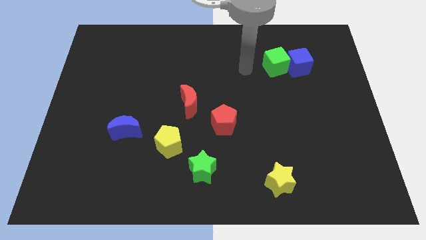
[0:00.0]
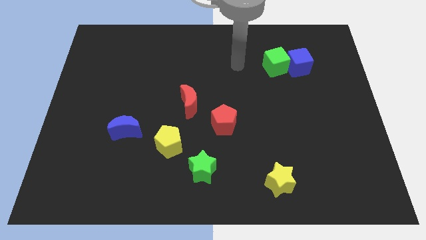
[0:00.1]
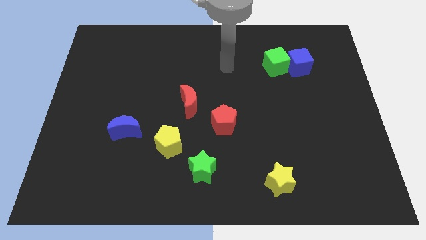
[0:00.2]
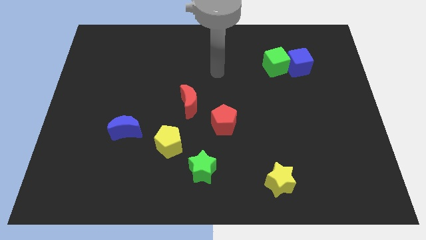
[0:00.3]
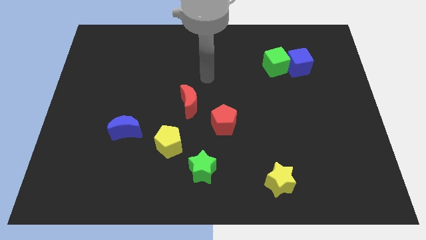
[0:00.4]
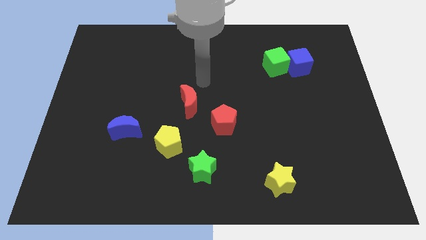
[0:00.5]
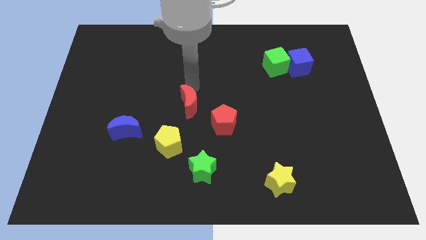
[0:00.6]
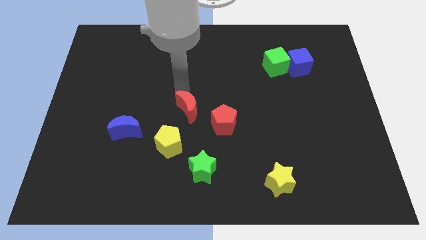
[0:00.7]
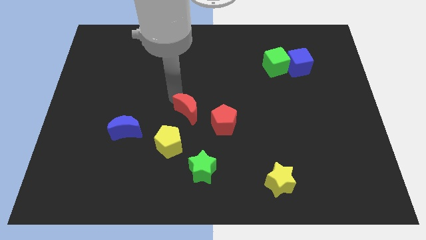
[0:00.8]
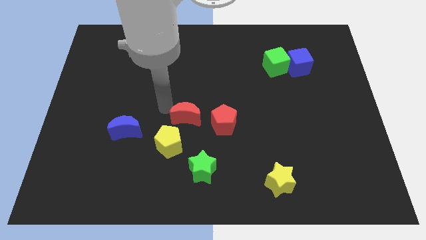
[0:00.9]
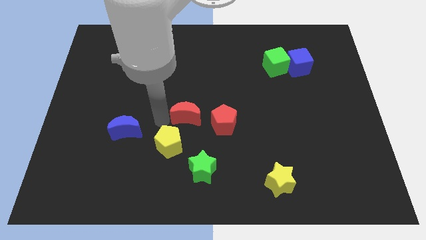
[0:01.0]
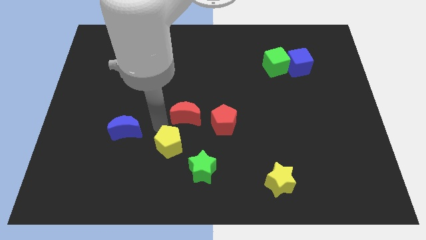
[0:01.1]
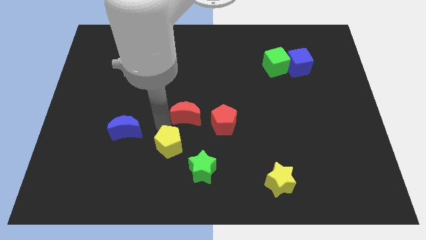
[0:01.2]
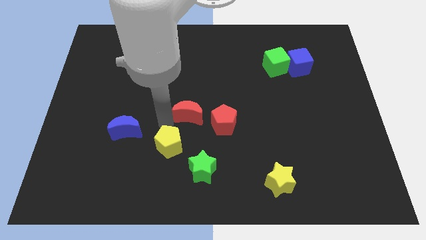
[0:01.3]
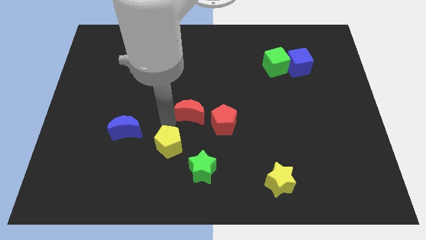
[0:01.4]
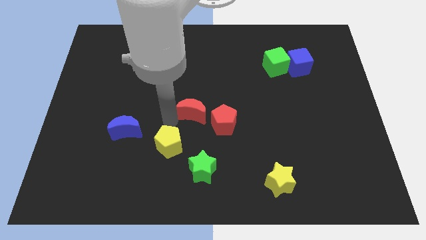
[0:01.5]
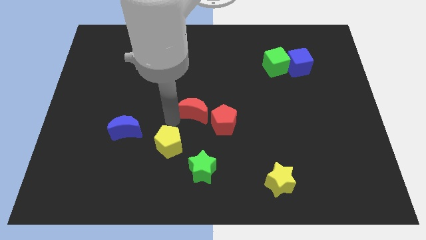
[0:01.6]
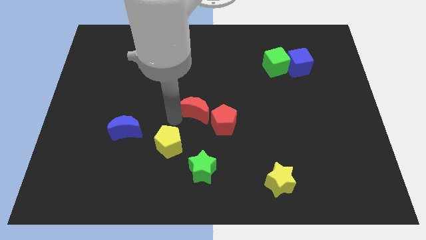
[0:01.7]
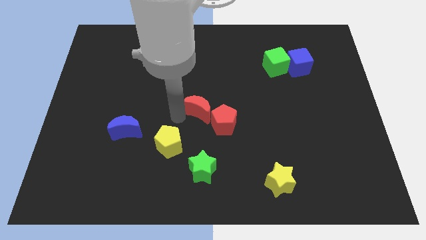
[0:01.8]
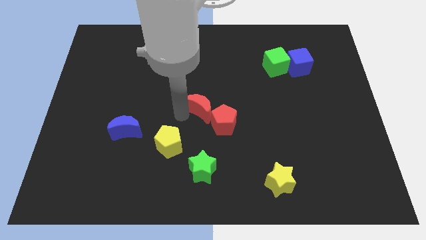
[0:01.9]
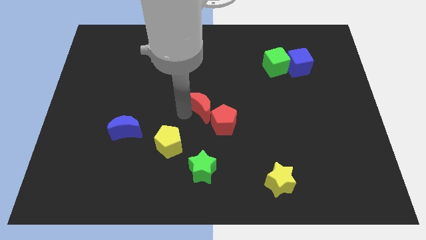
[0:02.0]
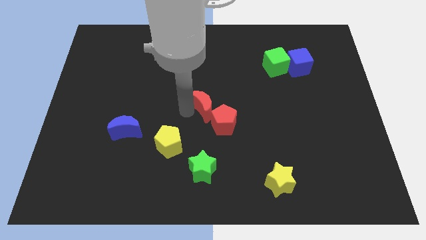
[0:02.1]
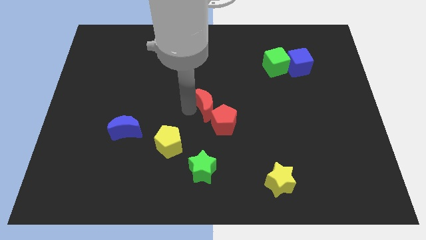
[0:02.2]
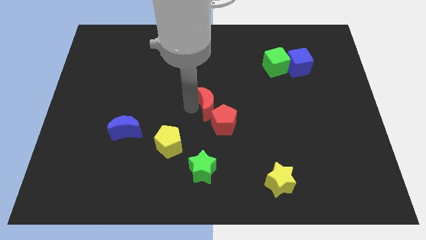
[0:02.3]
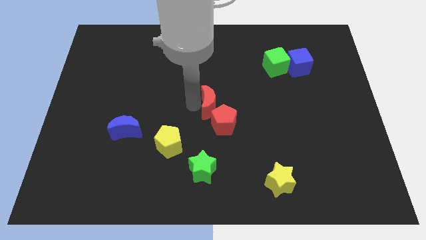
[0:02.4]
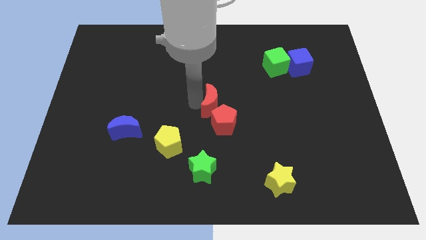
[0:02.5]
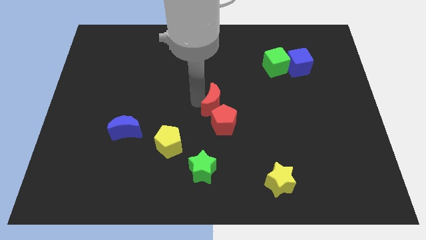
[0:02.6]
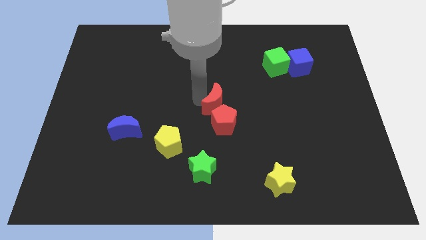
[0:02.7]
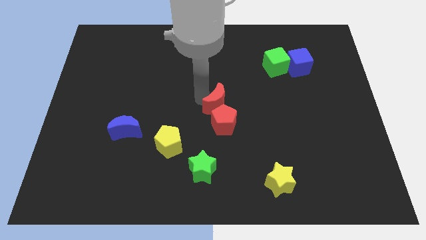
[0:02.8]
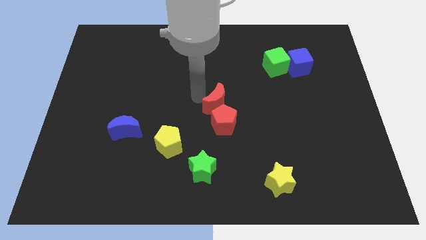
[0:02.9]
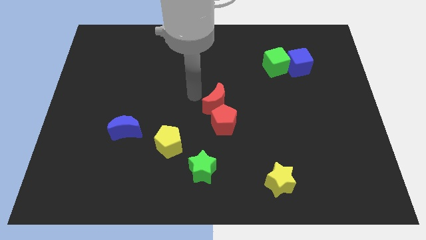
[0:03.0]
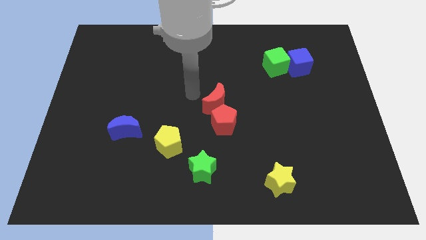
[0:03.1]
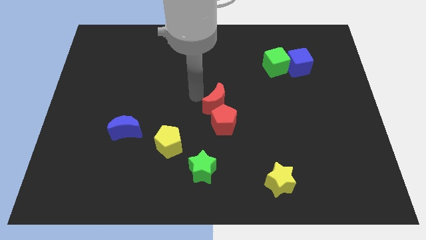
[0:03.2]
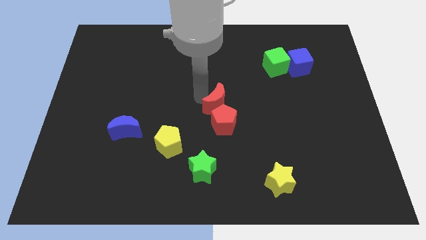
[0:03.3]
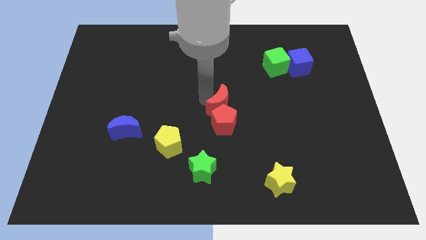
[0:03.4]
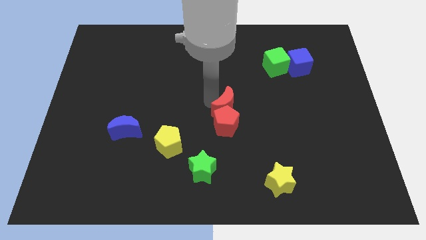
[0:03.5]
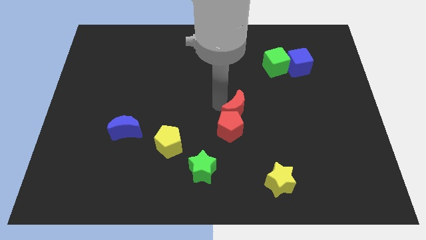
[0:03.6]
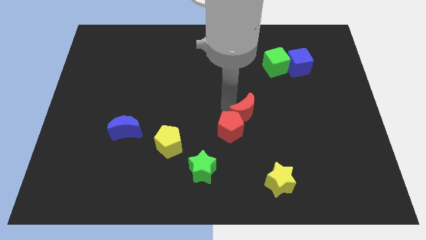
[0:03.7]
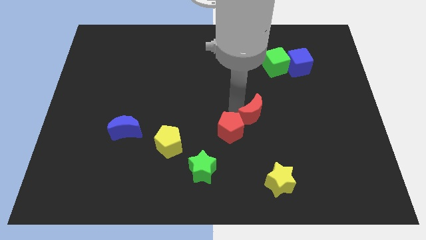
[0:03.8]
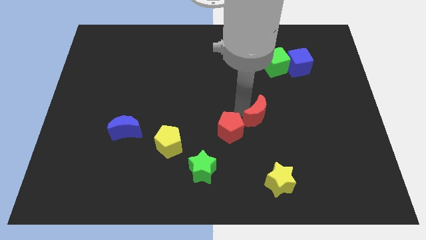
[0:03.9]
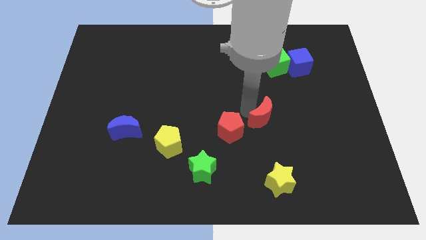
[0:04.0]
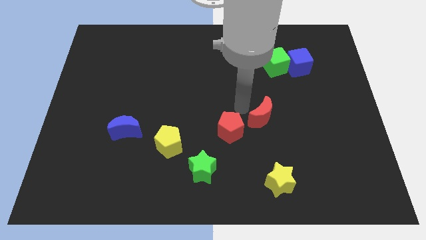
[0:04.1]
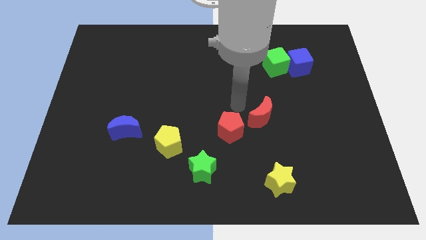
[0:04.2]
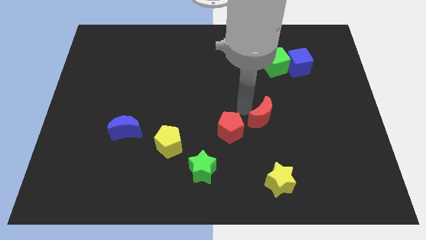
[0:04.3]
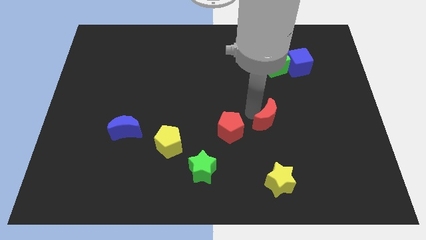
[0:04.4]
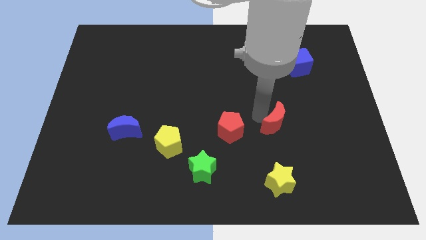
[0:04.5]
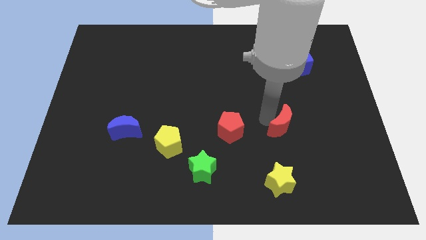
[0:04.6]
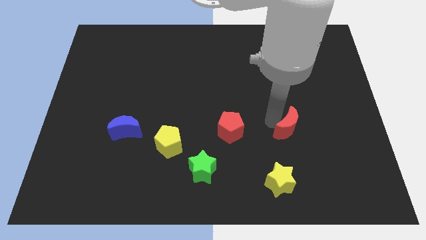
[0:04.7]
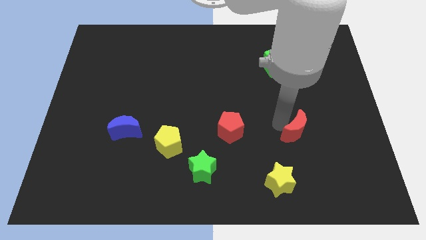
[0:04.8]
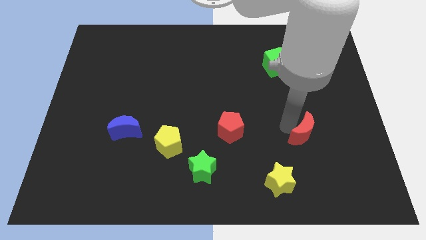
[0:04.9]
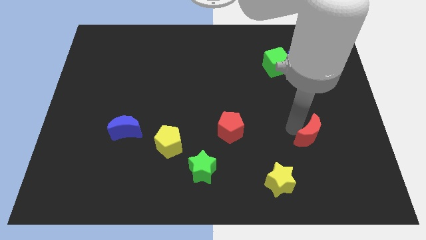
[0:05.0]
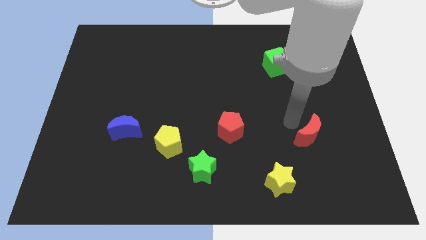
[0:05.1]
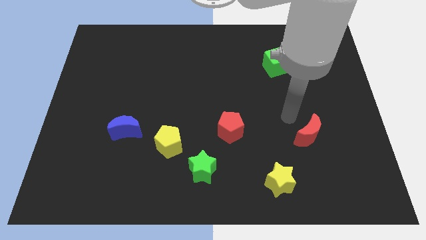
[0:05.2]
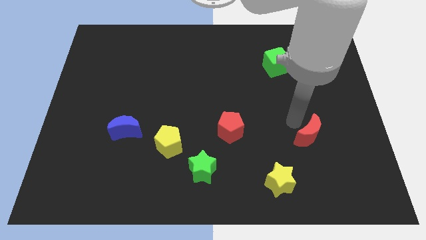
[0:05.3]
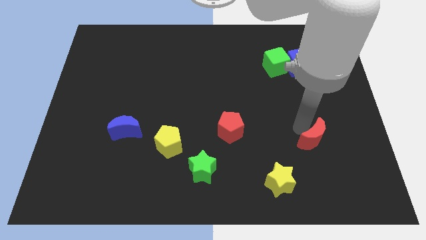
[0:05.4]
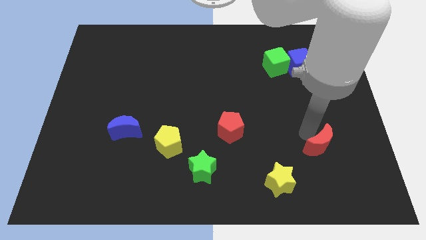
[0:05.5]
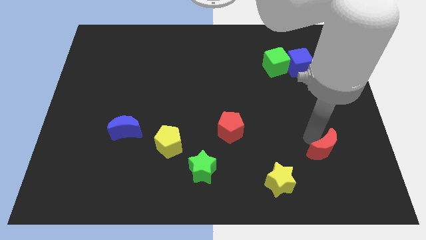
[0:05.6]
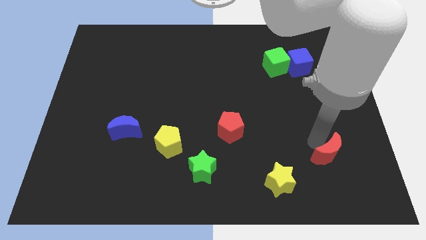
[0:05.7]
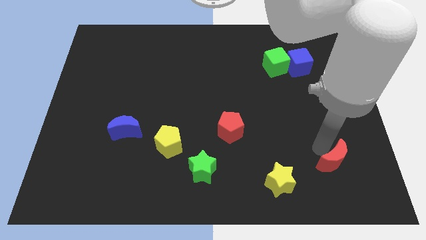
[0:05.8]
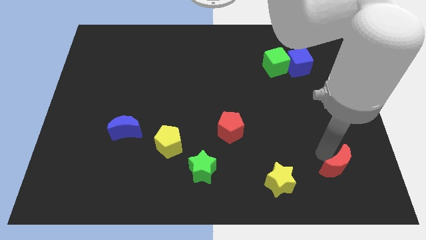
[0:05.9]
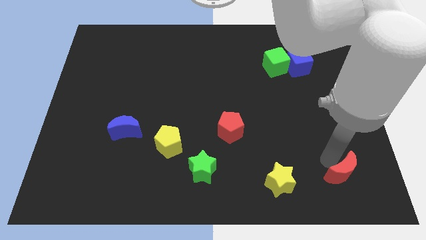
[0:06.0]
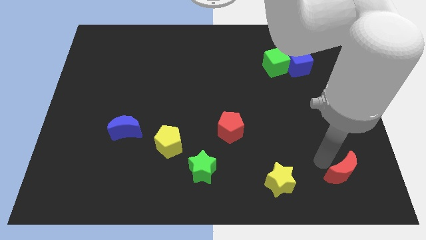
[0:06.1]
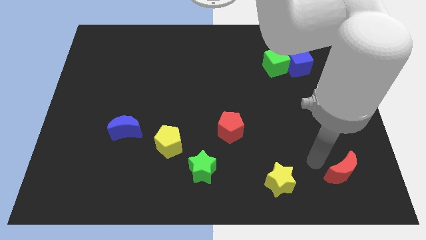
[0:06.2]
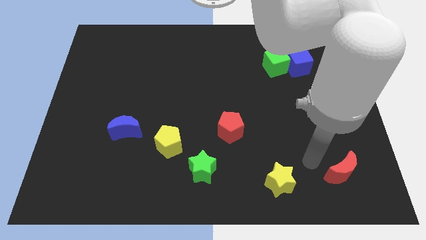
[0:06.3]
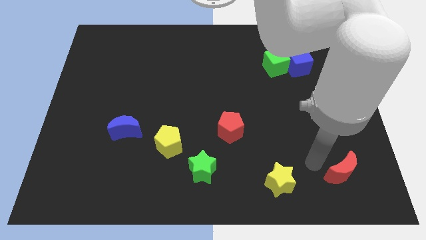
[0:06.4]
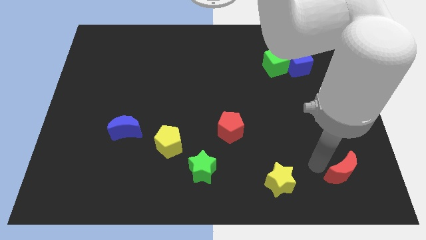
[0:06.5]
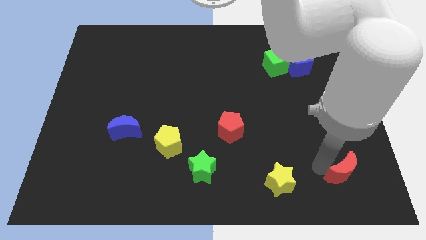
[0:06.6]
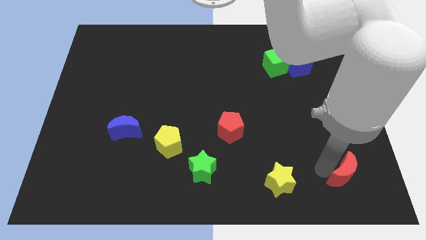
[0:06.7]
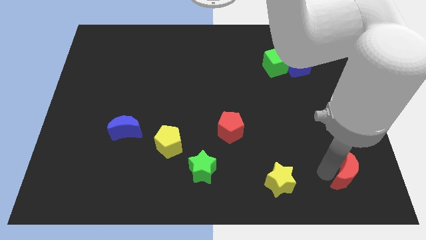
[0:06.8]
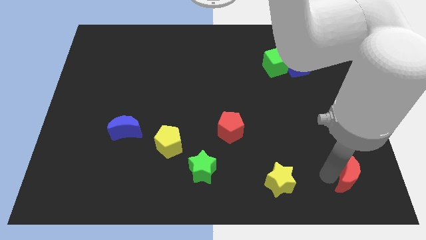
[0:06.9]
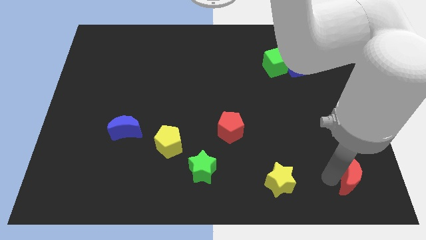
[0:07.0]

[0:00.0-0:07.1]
put the red moon to the bottom right corner
